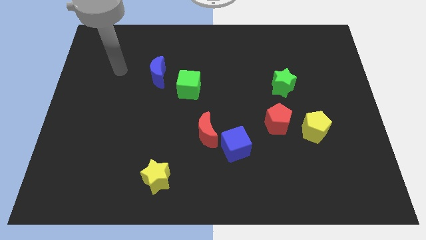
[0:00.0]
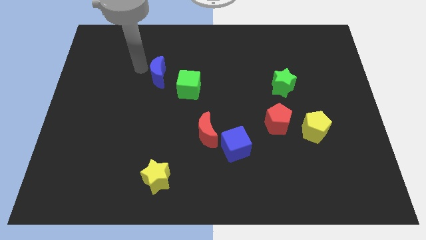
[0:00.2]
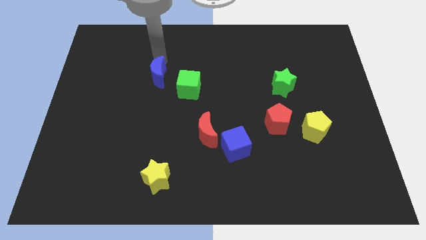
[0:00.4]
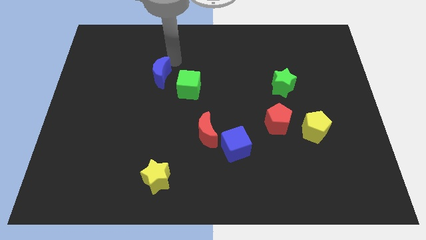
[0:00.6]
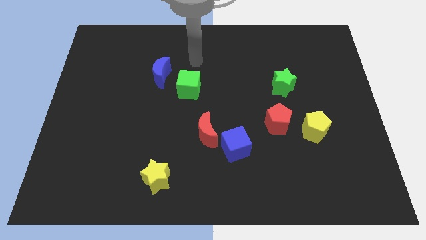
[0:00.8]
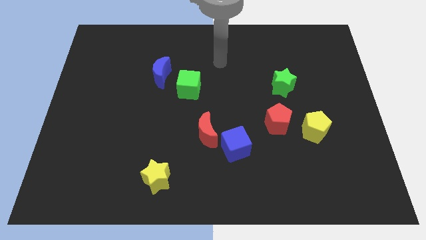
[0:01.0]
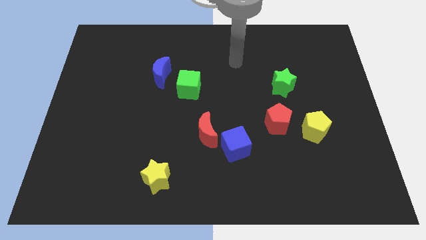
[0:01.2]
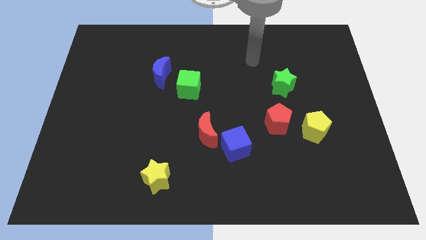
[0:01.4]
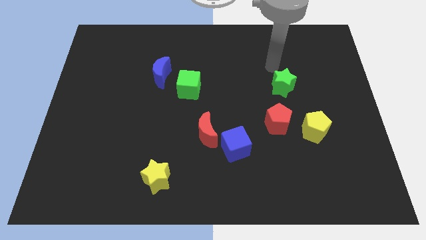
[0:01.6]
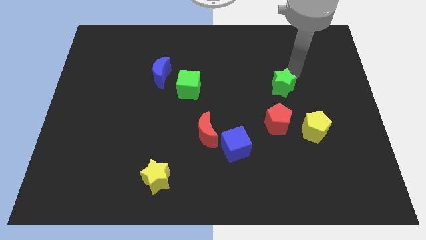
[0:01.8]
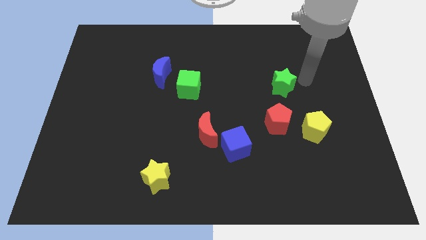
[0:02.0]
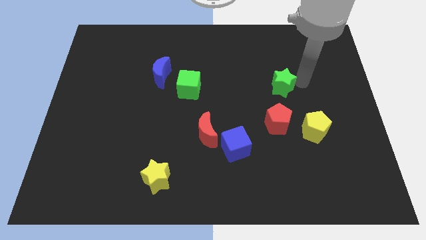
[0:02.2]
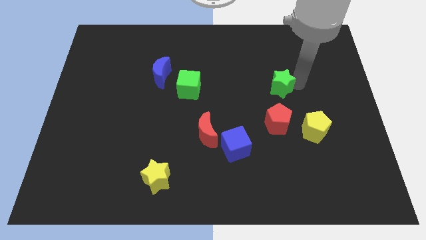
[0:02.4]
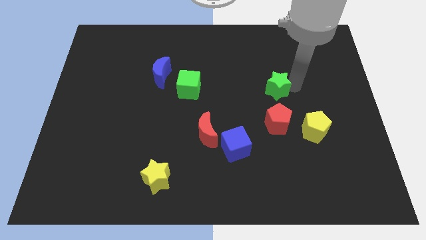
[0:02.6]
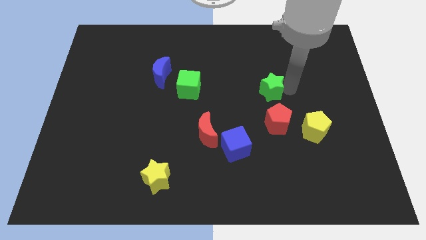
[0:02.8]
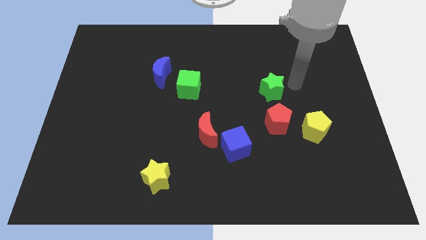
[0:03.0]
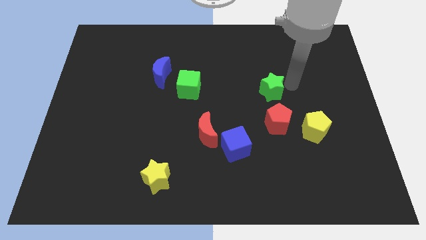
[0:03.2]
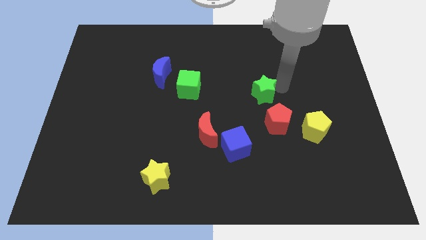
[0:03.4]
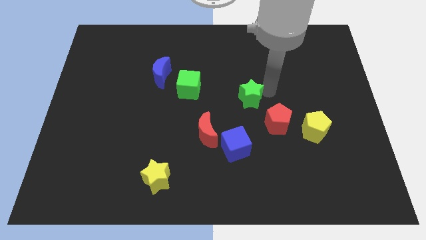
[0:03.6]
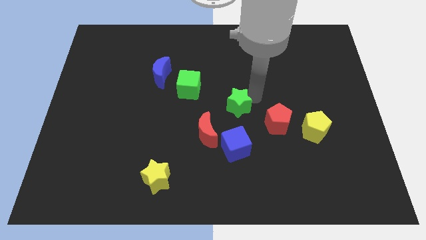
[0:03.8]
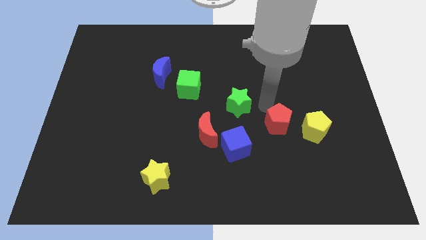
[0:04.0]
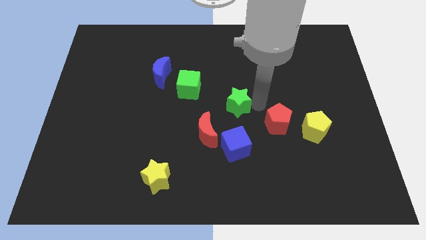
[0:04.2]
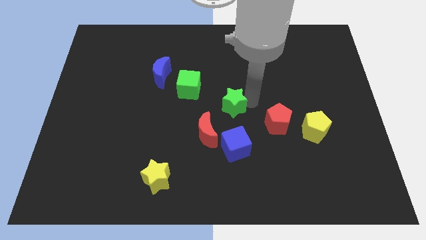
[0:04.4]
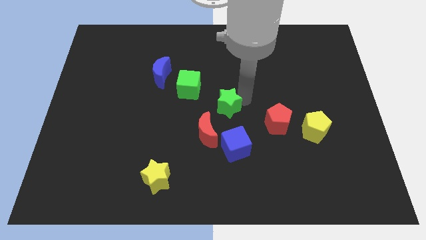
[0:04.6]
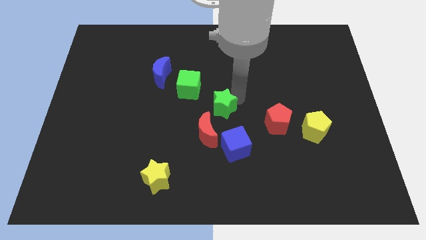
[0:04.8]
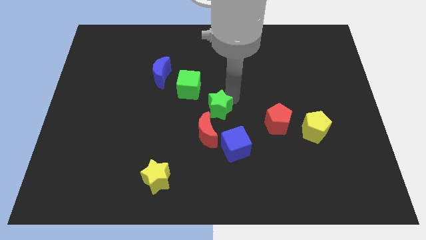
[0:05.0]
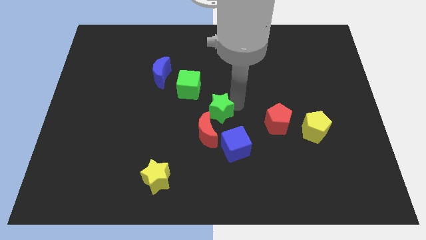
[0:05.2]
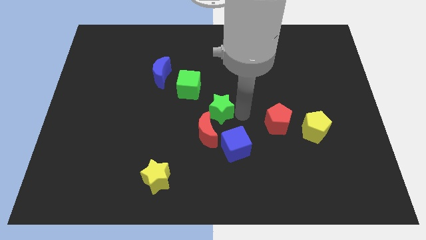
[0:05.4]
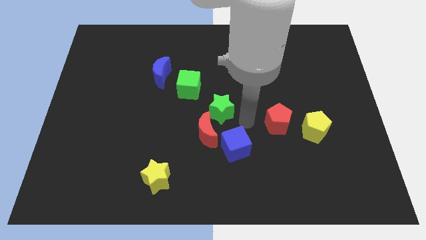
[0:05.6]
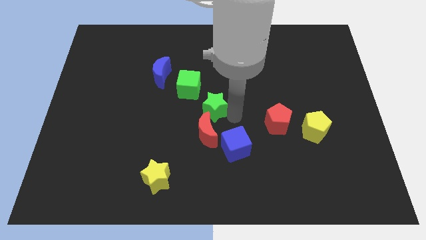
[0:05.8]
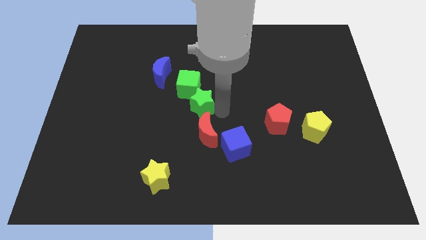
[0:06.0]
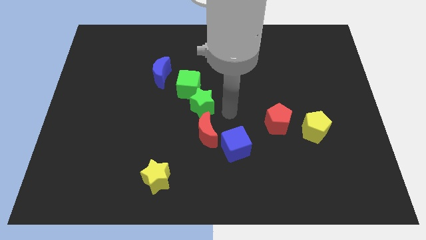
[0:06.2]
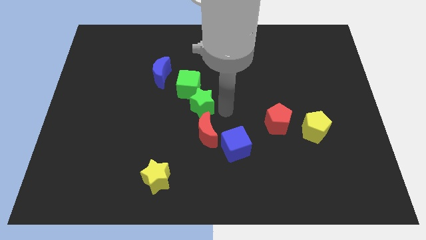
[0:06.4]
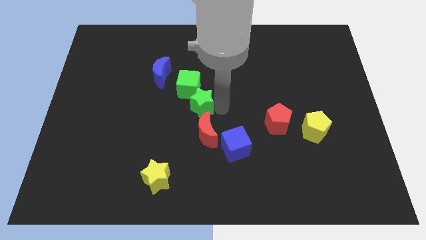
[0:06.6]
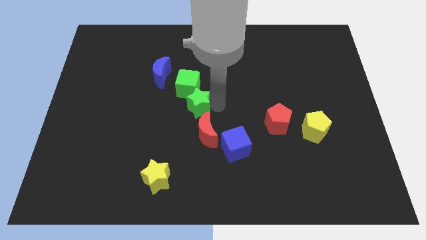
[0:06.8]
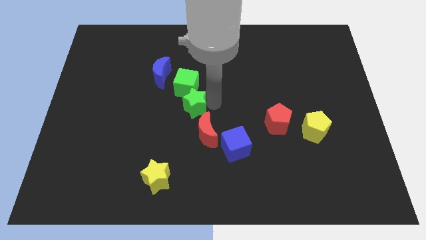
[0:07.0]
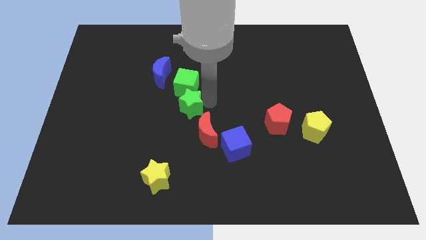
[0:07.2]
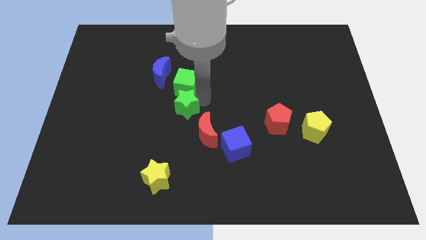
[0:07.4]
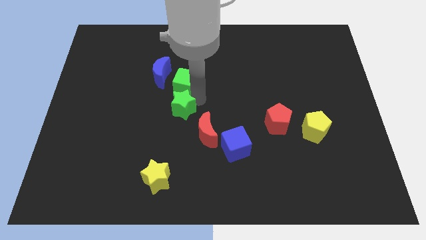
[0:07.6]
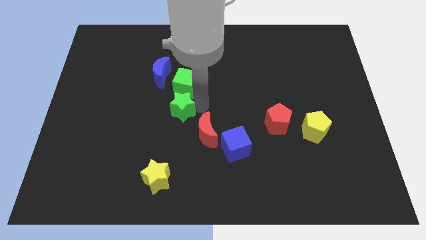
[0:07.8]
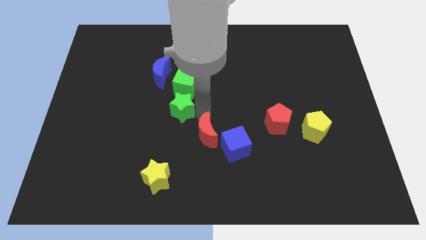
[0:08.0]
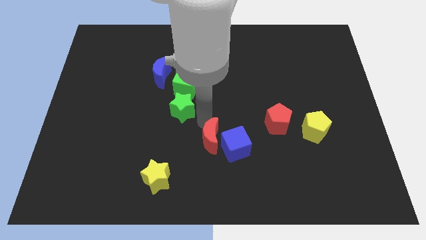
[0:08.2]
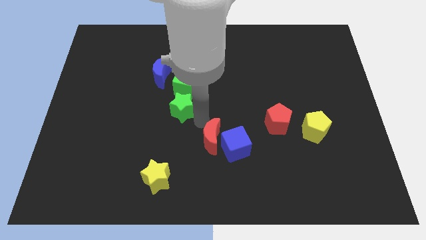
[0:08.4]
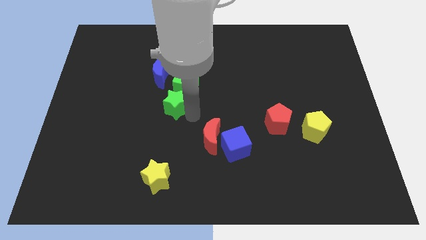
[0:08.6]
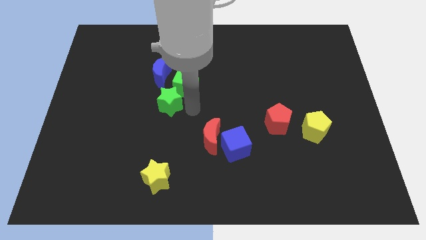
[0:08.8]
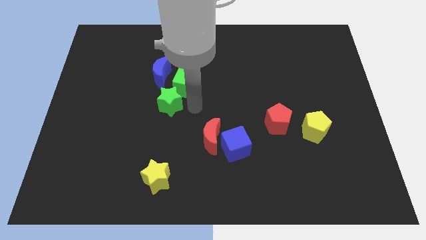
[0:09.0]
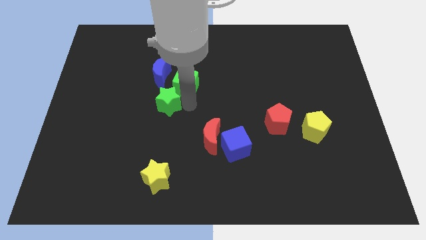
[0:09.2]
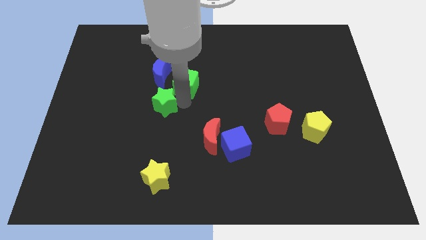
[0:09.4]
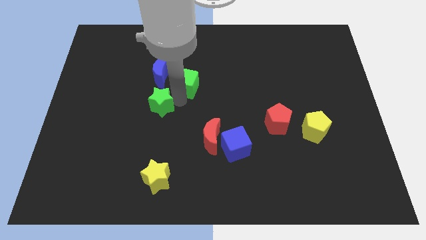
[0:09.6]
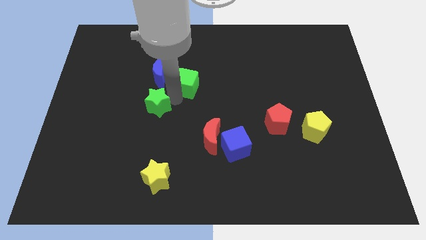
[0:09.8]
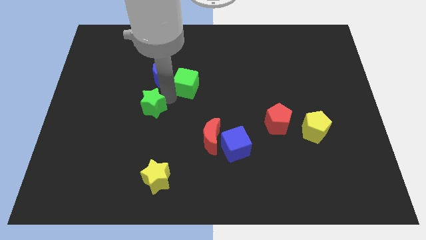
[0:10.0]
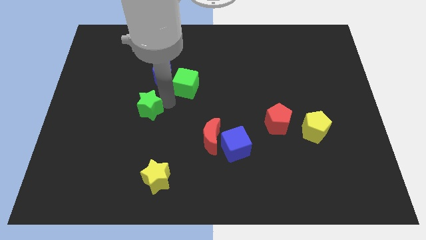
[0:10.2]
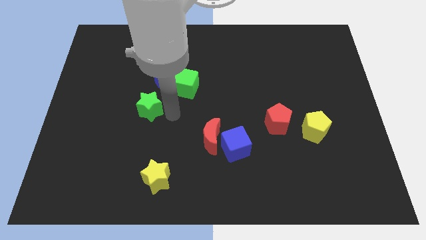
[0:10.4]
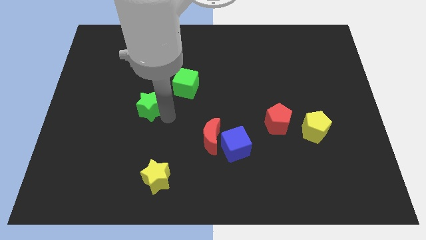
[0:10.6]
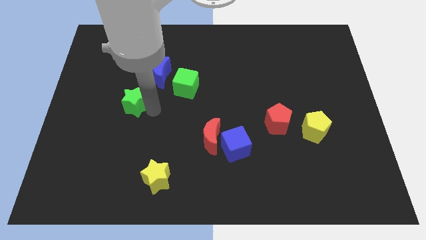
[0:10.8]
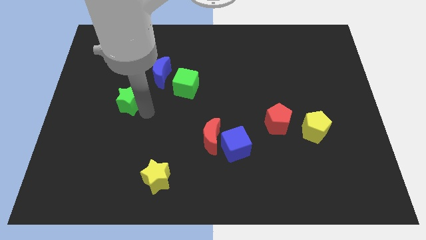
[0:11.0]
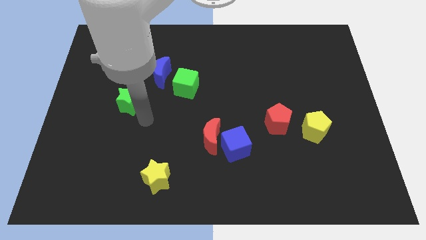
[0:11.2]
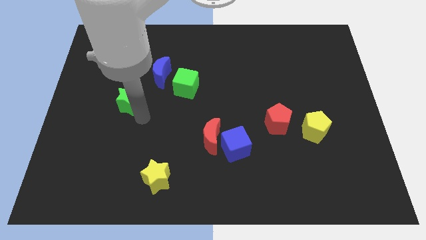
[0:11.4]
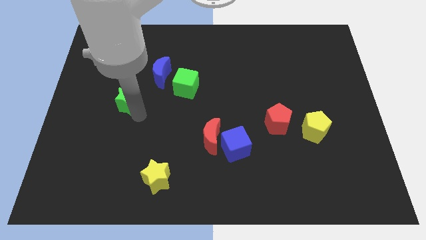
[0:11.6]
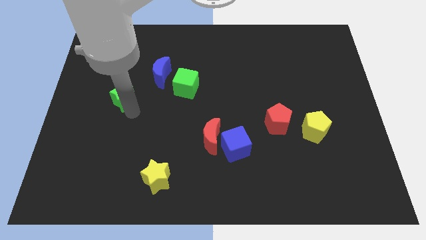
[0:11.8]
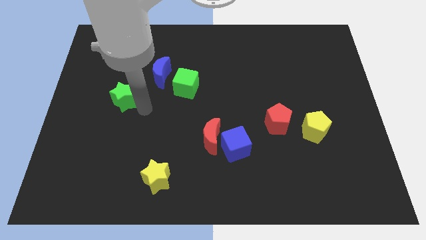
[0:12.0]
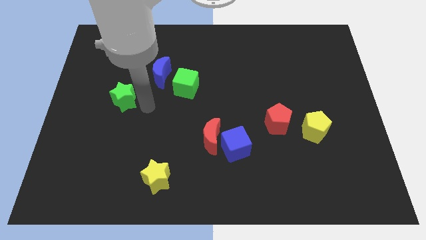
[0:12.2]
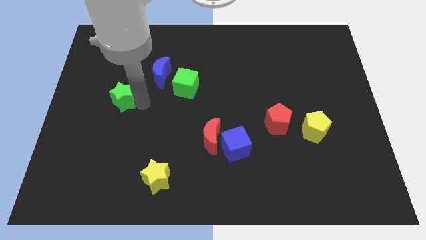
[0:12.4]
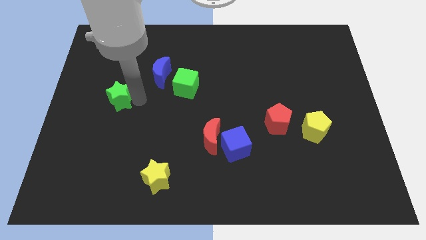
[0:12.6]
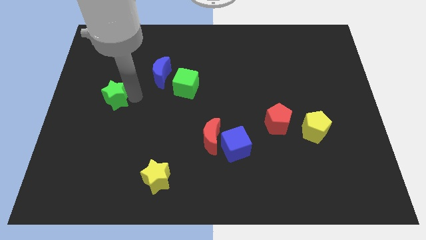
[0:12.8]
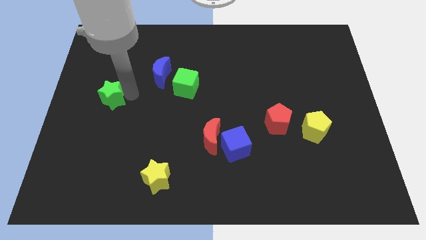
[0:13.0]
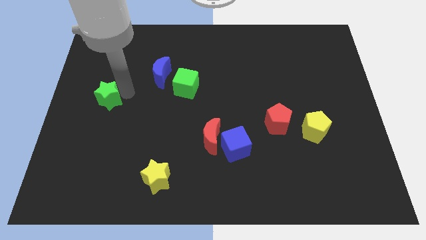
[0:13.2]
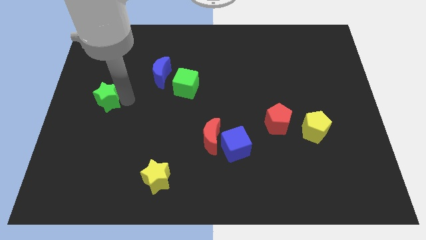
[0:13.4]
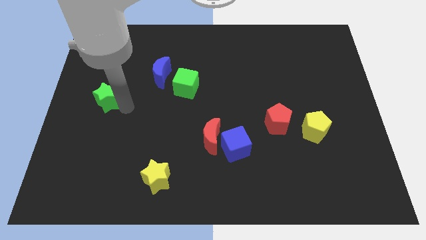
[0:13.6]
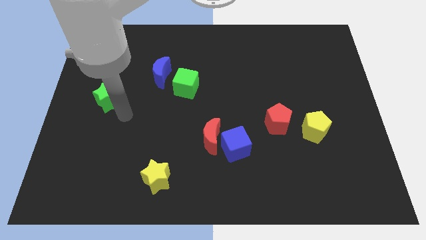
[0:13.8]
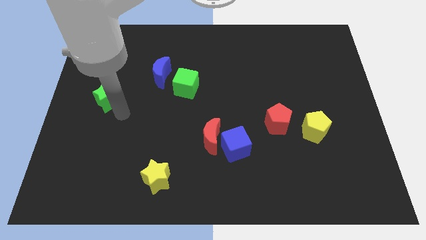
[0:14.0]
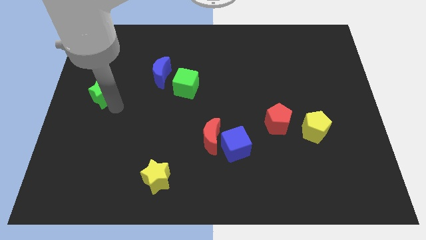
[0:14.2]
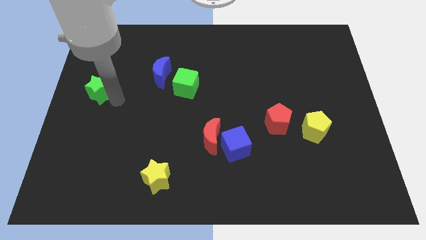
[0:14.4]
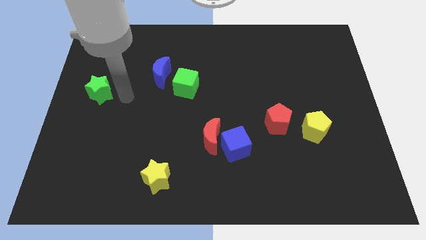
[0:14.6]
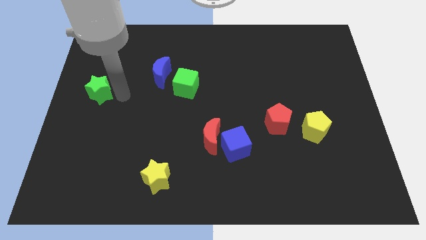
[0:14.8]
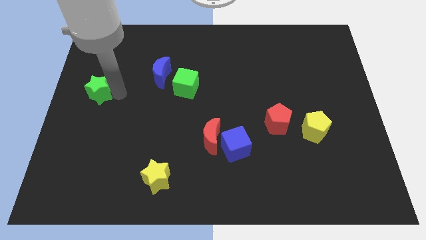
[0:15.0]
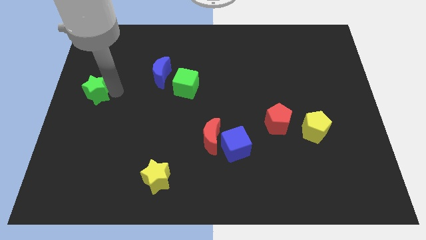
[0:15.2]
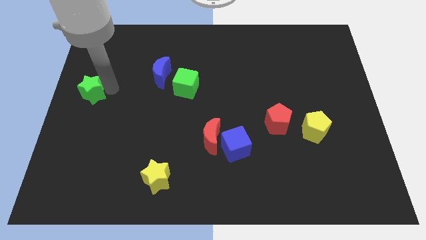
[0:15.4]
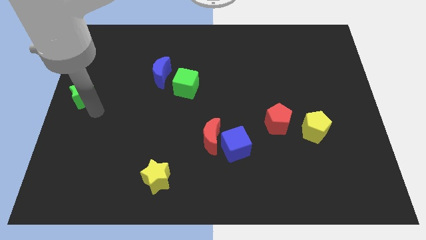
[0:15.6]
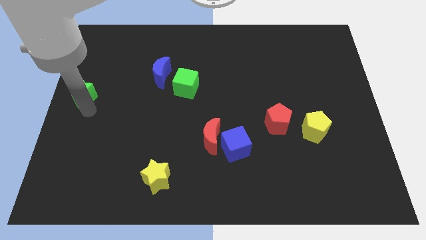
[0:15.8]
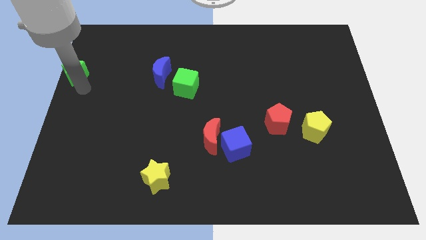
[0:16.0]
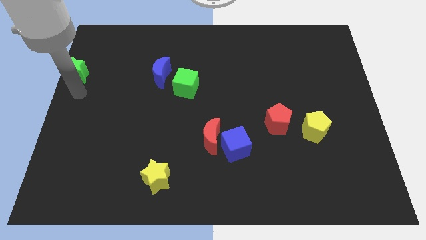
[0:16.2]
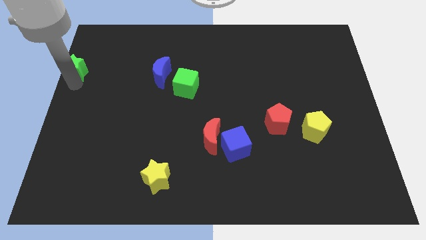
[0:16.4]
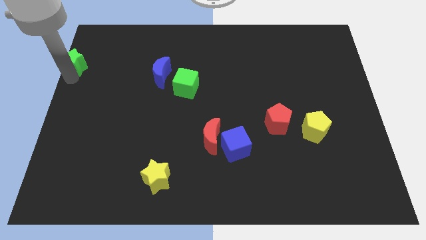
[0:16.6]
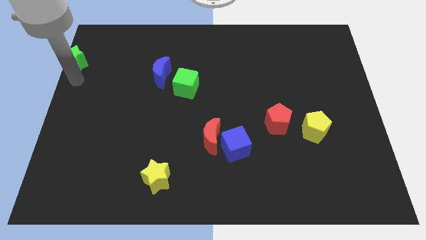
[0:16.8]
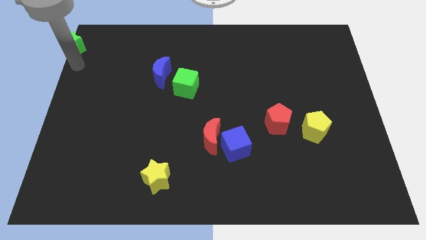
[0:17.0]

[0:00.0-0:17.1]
move the green star to the top left corner
